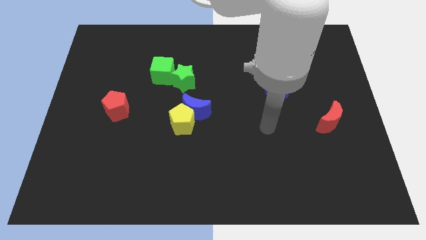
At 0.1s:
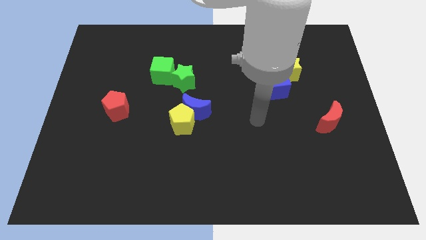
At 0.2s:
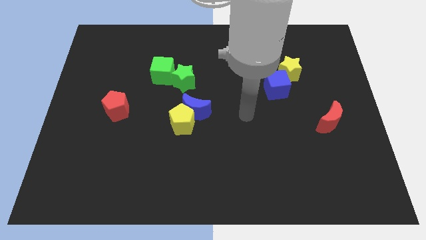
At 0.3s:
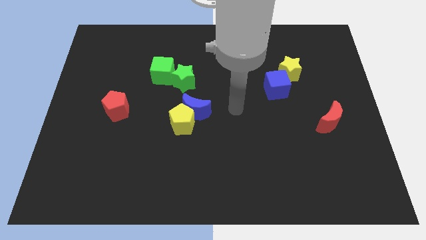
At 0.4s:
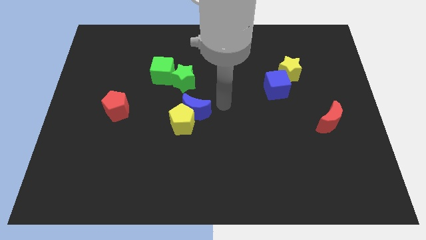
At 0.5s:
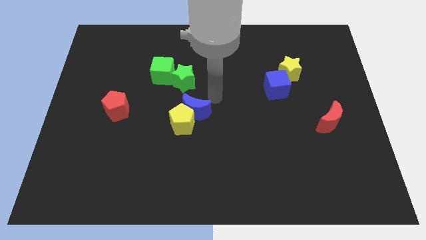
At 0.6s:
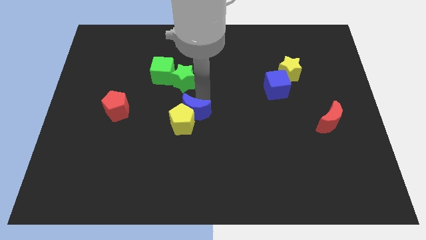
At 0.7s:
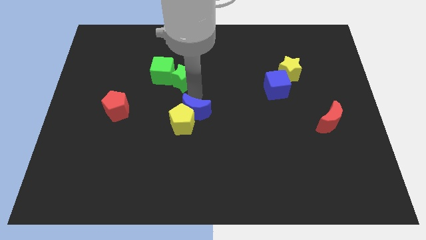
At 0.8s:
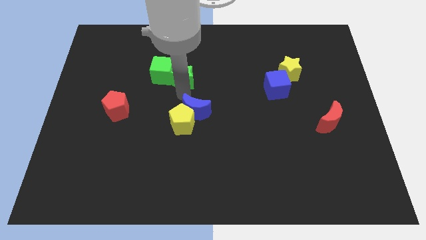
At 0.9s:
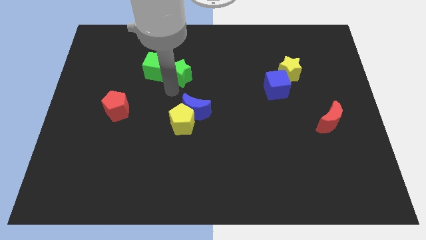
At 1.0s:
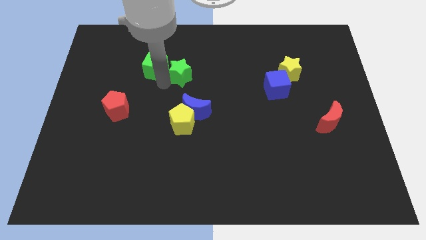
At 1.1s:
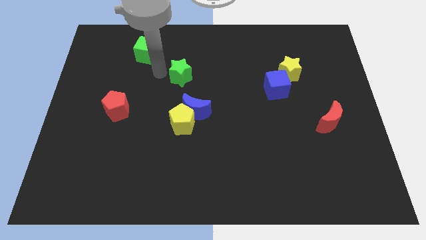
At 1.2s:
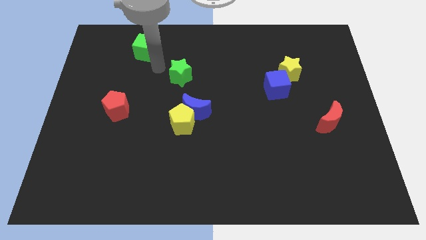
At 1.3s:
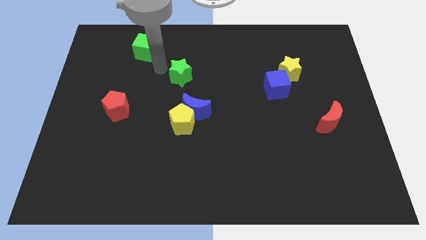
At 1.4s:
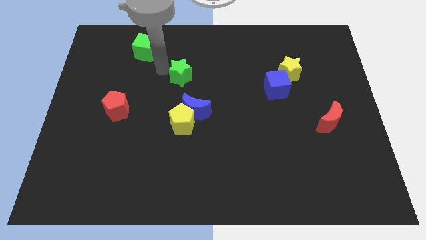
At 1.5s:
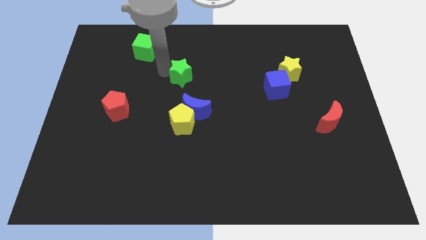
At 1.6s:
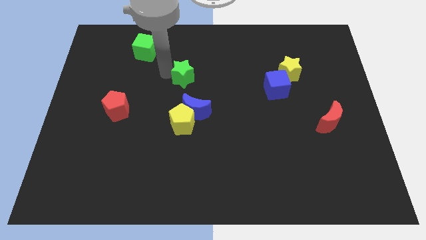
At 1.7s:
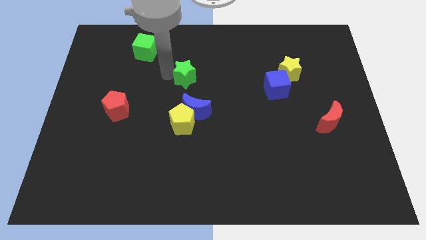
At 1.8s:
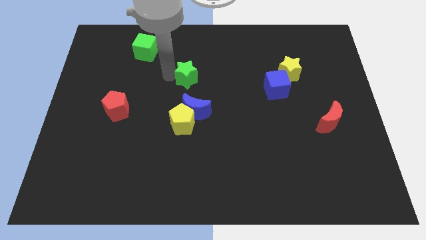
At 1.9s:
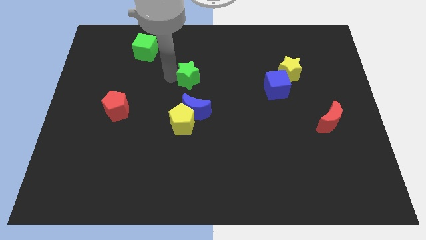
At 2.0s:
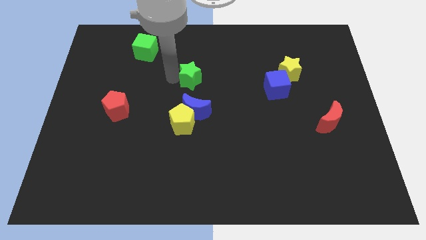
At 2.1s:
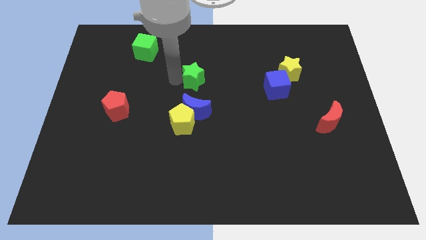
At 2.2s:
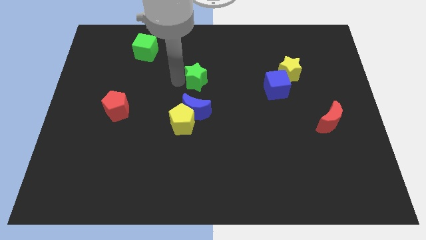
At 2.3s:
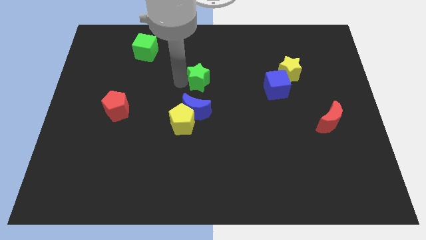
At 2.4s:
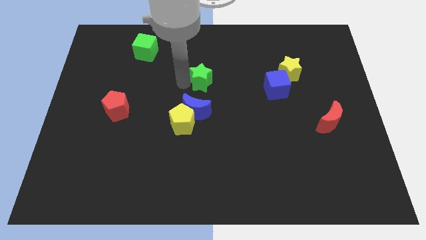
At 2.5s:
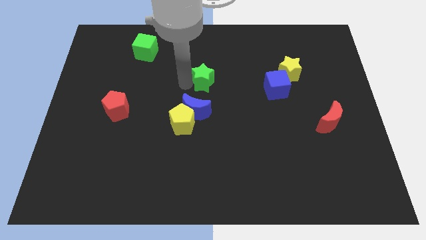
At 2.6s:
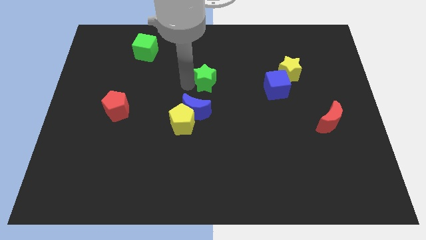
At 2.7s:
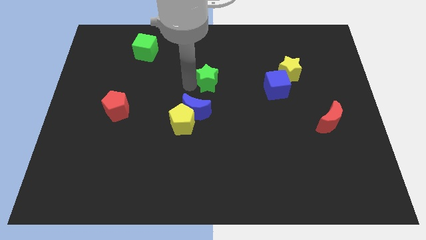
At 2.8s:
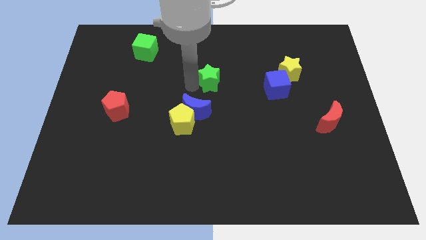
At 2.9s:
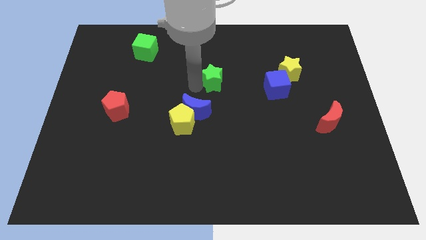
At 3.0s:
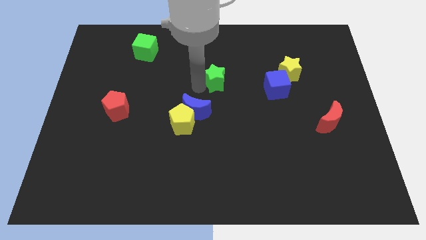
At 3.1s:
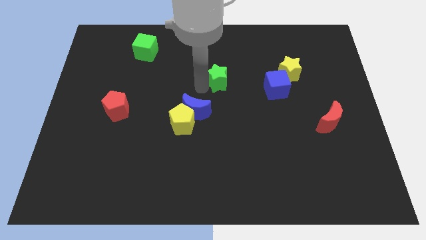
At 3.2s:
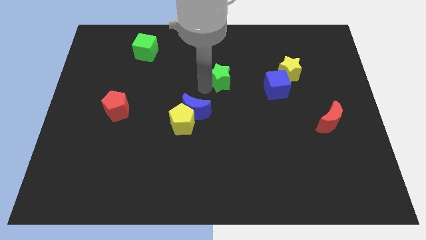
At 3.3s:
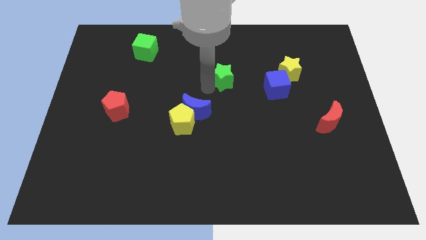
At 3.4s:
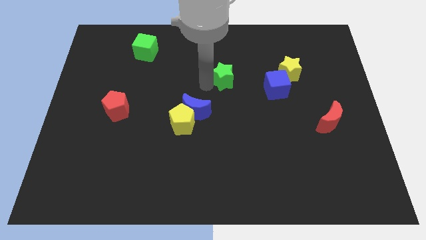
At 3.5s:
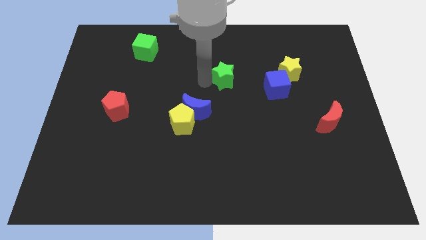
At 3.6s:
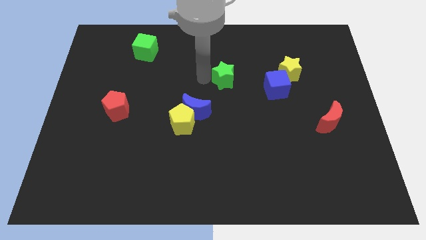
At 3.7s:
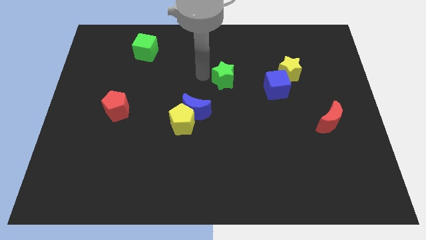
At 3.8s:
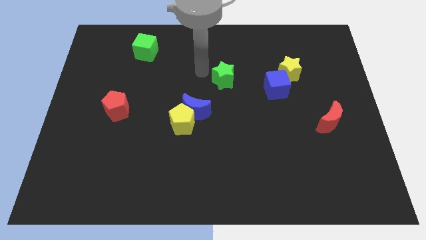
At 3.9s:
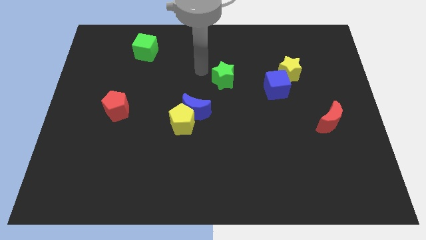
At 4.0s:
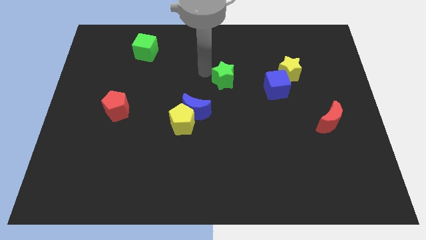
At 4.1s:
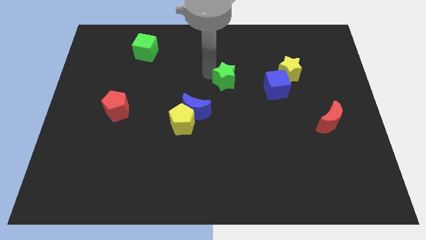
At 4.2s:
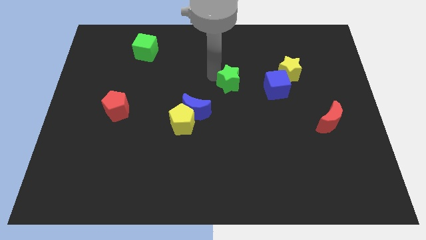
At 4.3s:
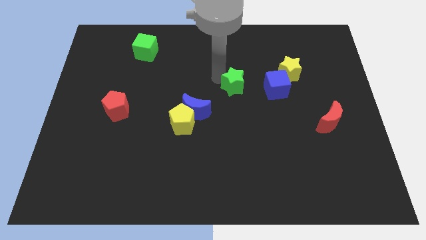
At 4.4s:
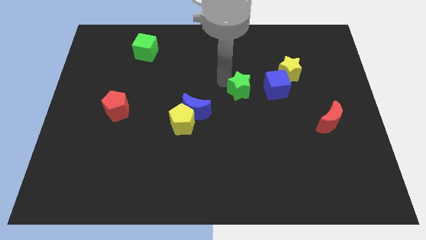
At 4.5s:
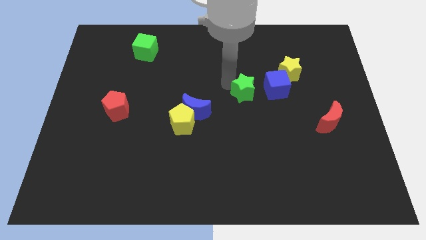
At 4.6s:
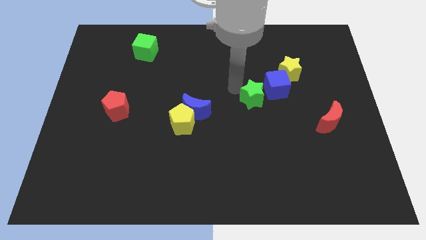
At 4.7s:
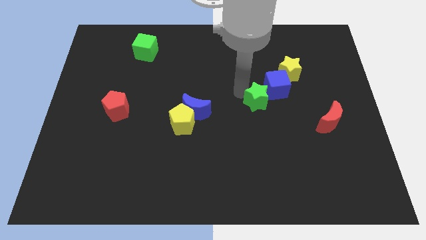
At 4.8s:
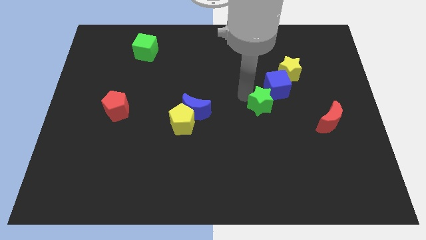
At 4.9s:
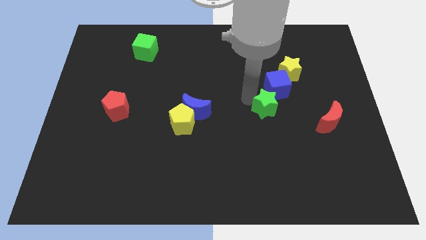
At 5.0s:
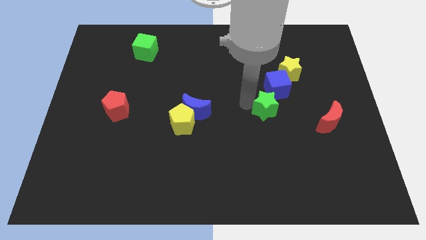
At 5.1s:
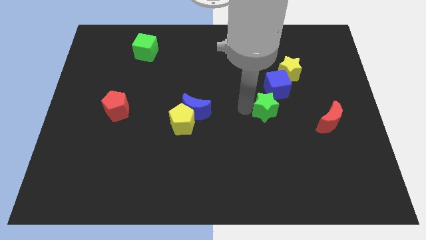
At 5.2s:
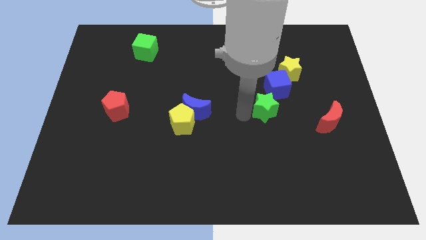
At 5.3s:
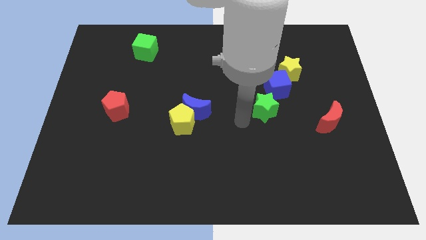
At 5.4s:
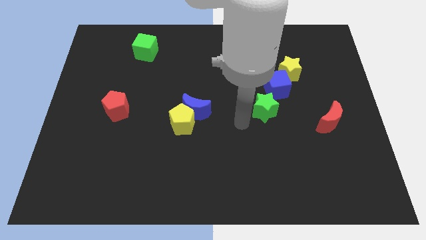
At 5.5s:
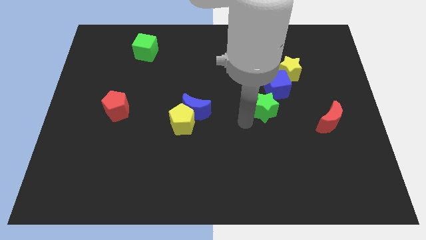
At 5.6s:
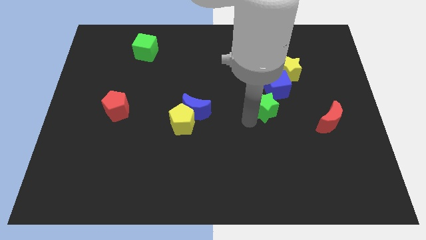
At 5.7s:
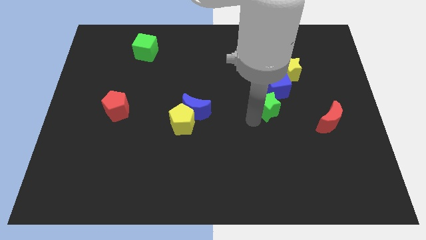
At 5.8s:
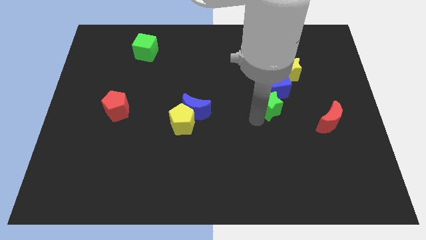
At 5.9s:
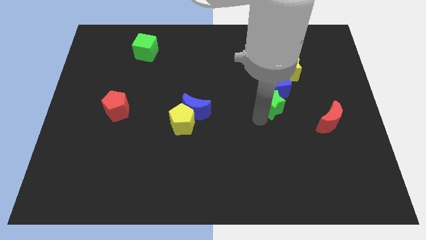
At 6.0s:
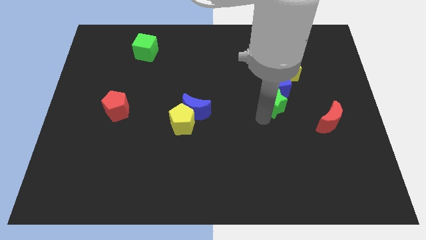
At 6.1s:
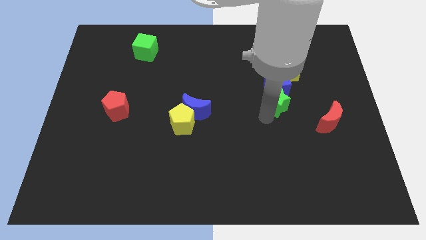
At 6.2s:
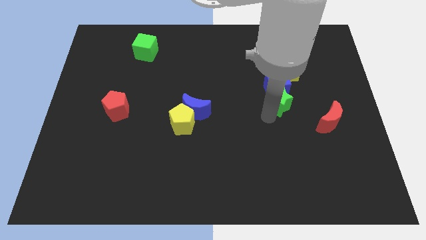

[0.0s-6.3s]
slide the green star to the right

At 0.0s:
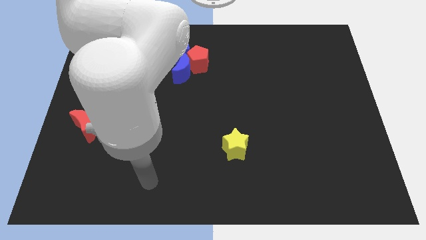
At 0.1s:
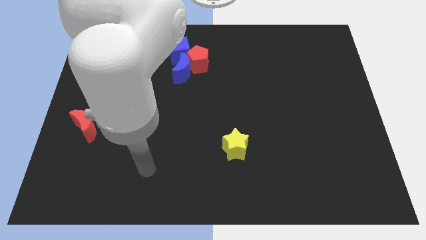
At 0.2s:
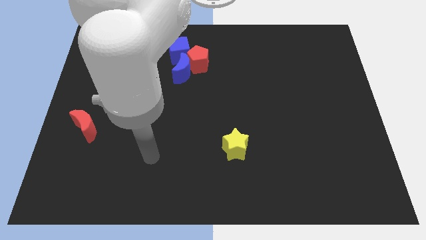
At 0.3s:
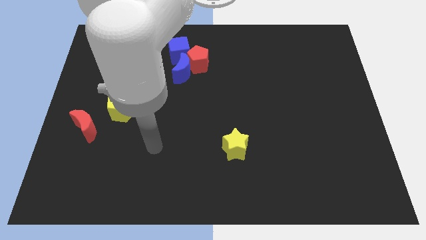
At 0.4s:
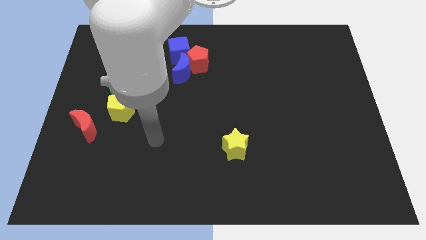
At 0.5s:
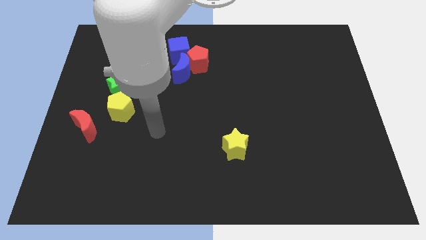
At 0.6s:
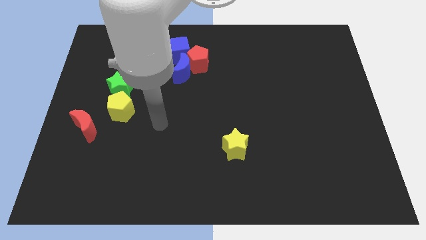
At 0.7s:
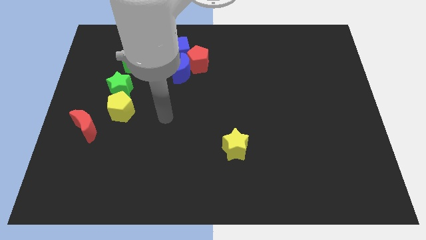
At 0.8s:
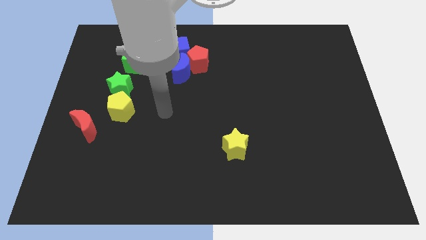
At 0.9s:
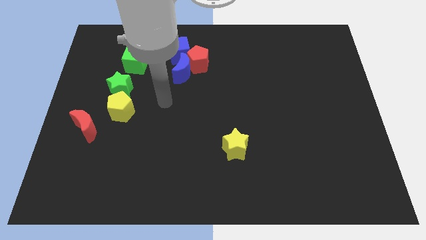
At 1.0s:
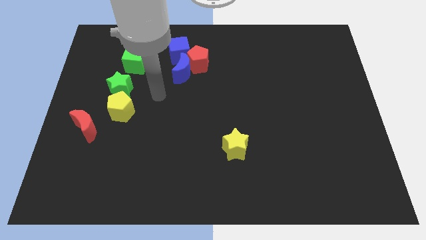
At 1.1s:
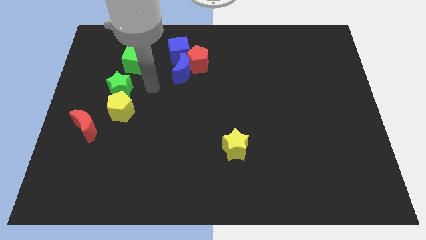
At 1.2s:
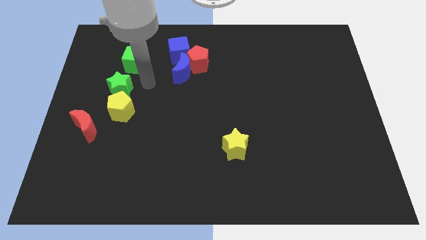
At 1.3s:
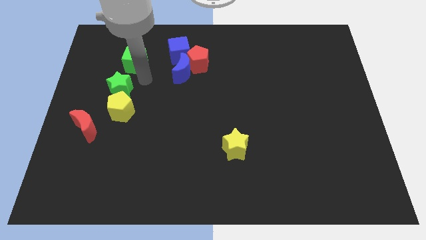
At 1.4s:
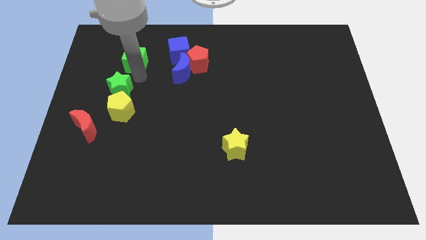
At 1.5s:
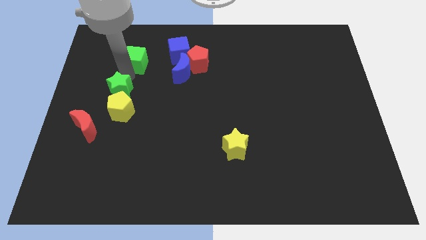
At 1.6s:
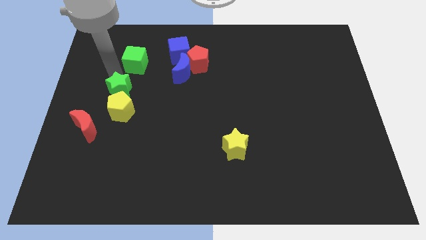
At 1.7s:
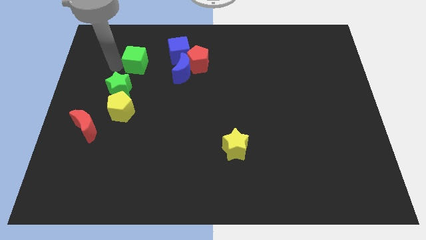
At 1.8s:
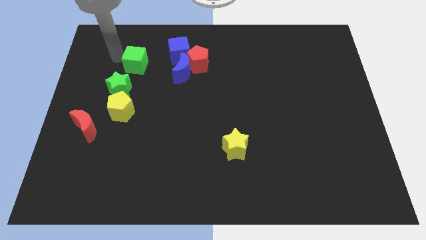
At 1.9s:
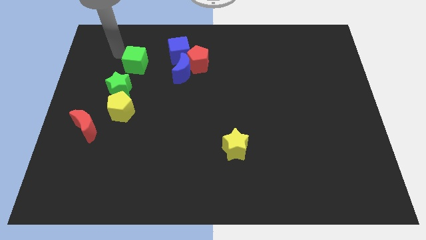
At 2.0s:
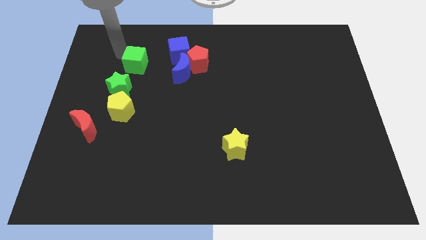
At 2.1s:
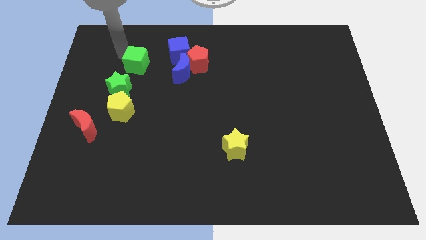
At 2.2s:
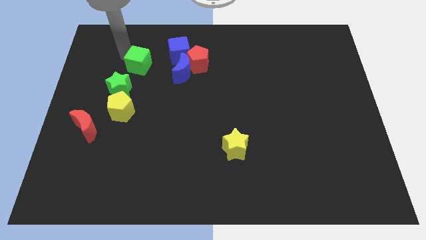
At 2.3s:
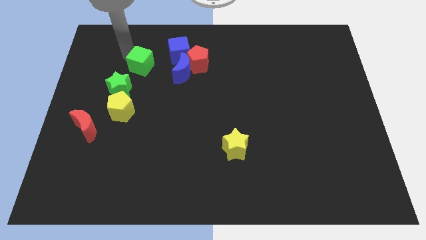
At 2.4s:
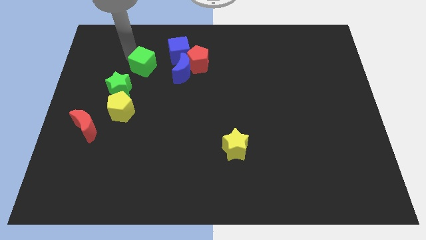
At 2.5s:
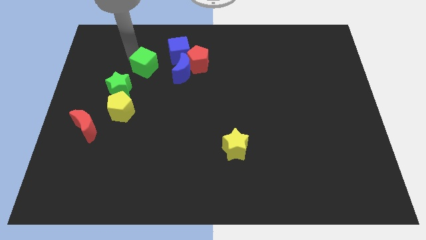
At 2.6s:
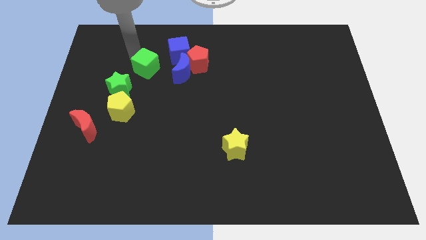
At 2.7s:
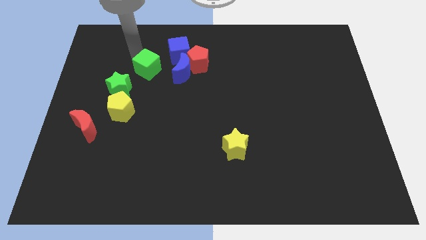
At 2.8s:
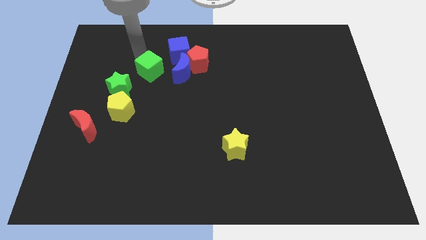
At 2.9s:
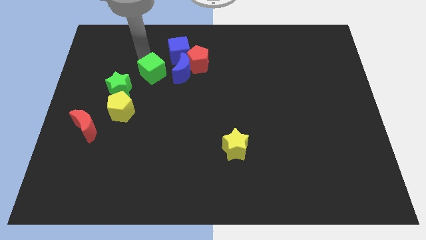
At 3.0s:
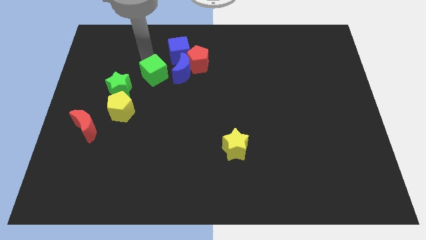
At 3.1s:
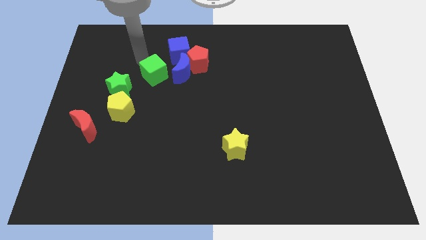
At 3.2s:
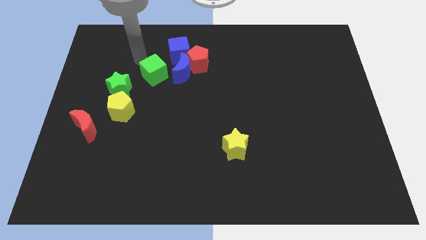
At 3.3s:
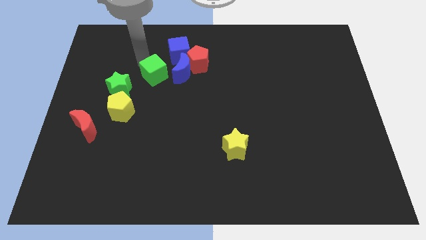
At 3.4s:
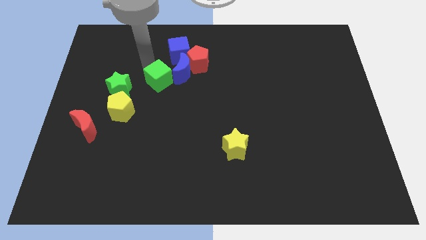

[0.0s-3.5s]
slide the green cube diagonally downwards and to the right a bit
